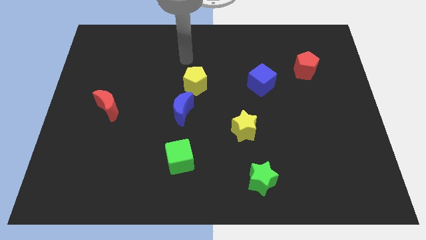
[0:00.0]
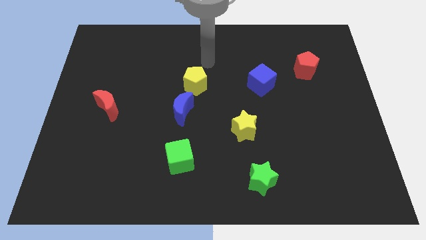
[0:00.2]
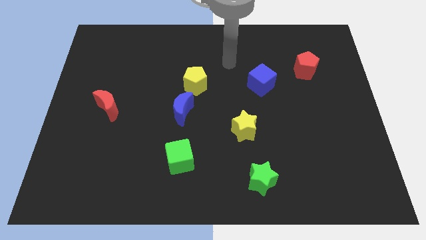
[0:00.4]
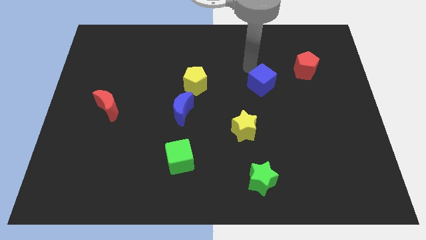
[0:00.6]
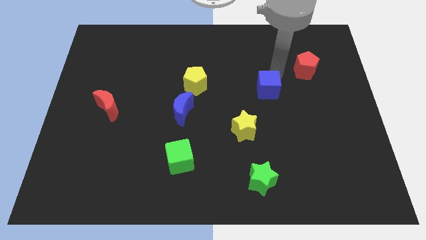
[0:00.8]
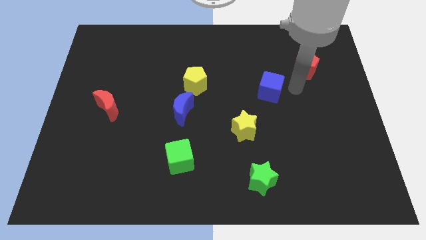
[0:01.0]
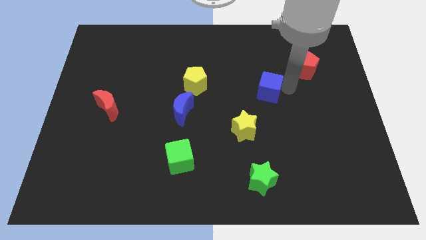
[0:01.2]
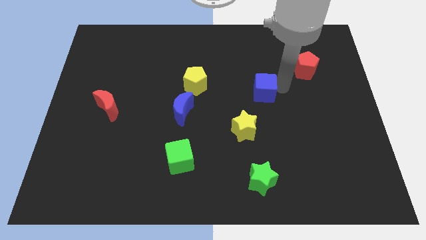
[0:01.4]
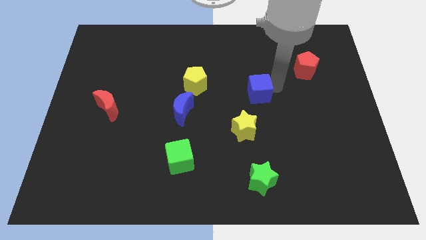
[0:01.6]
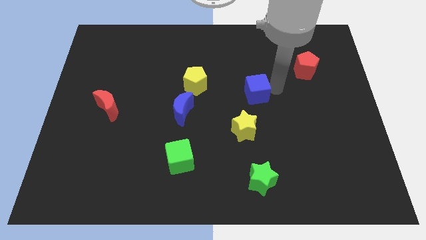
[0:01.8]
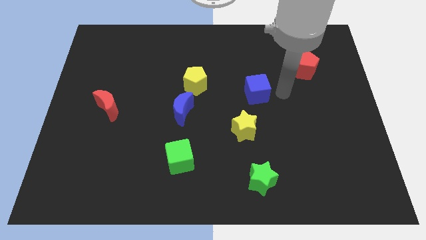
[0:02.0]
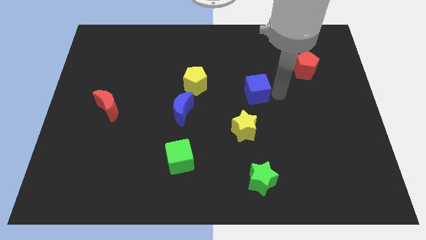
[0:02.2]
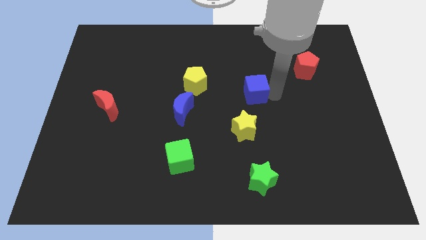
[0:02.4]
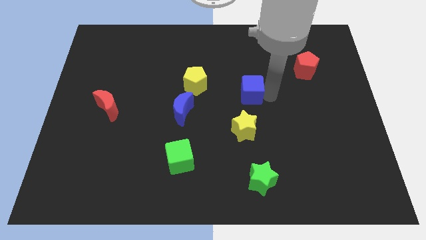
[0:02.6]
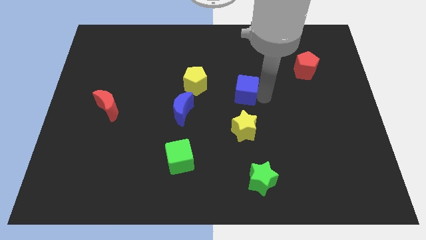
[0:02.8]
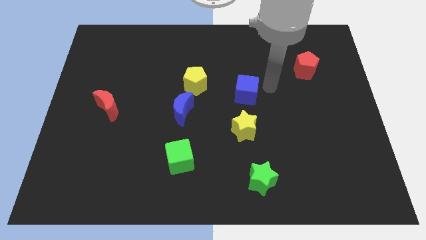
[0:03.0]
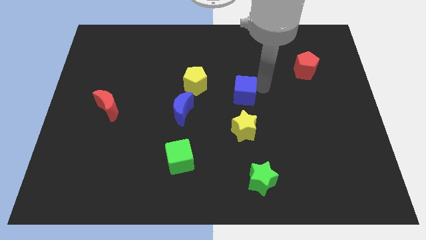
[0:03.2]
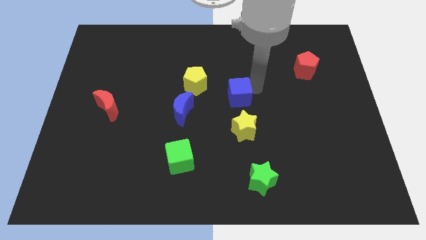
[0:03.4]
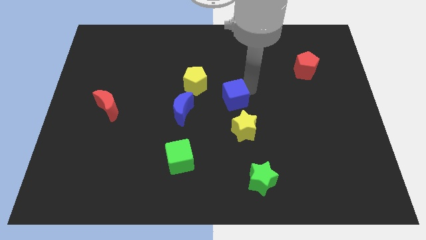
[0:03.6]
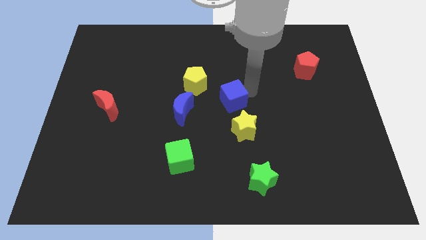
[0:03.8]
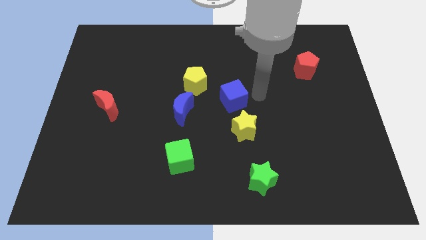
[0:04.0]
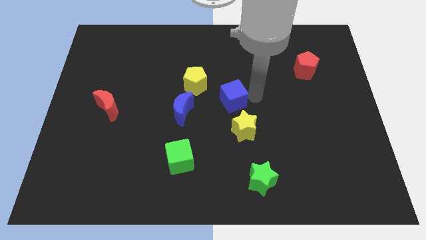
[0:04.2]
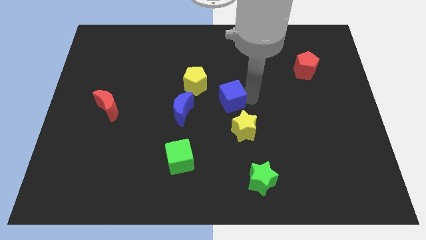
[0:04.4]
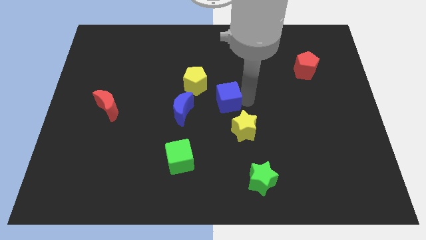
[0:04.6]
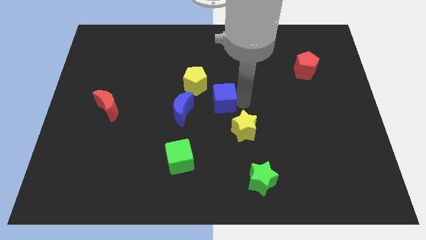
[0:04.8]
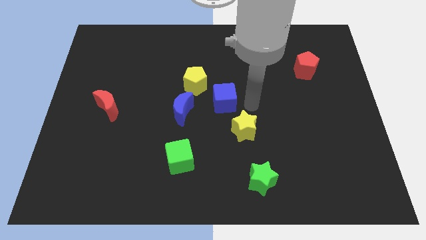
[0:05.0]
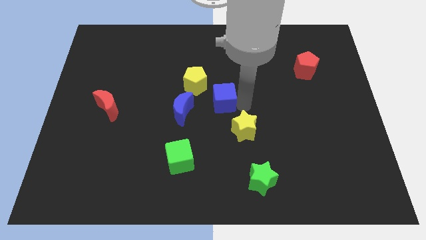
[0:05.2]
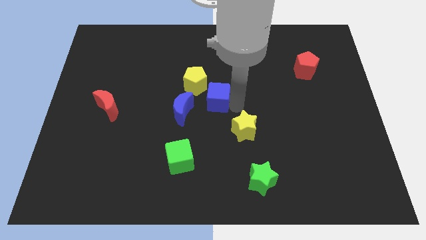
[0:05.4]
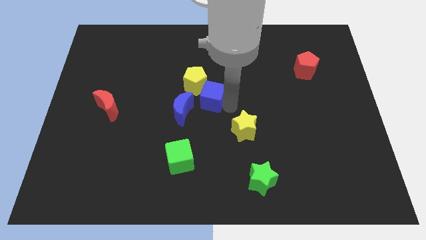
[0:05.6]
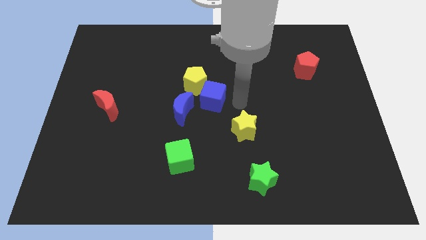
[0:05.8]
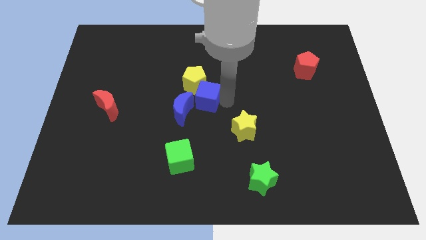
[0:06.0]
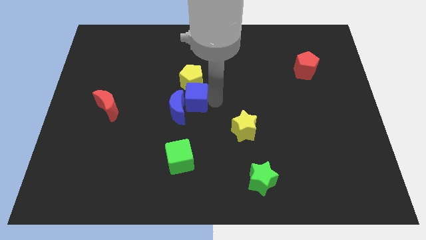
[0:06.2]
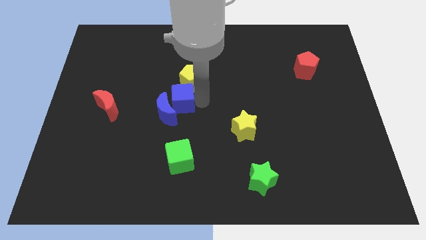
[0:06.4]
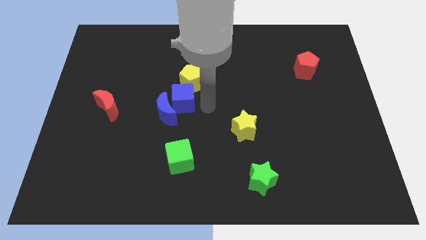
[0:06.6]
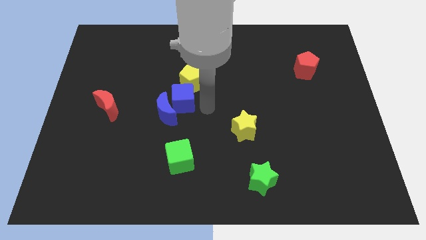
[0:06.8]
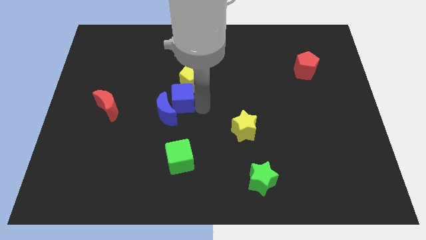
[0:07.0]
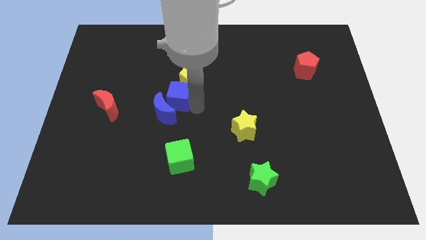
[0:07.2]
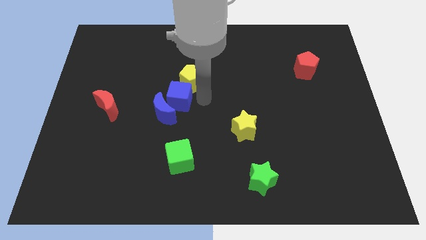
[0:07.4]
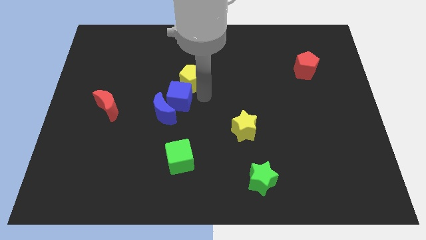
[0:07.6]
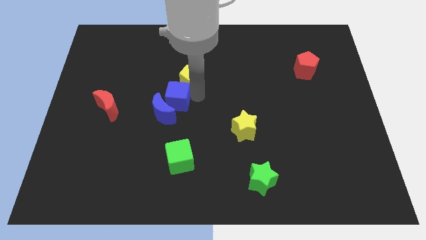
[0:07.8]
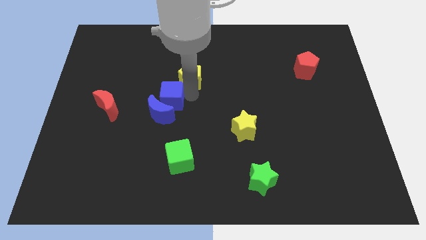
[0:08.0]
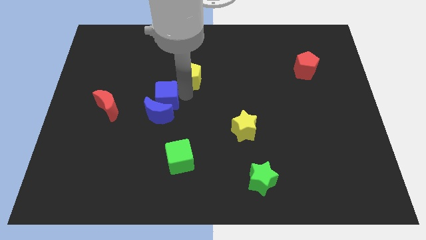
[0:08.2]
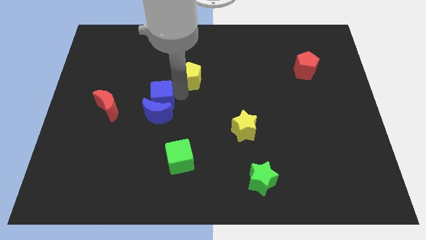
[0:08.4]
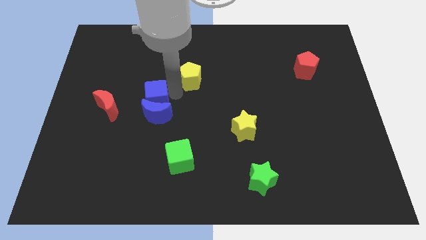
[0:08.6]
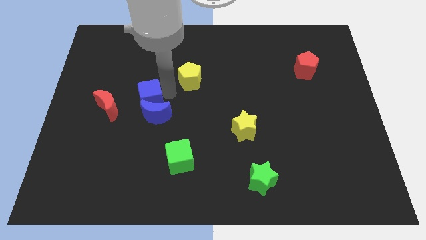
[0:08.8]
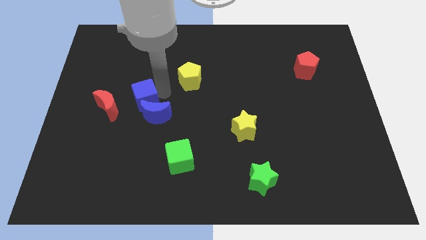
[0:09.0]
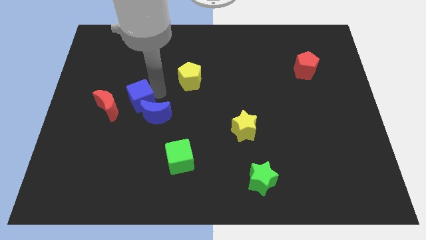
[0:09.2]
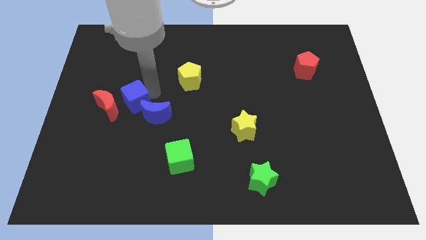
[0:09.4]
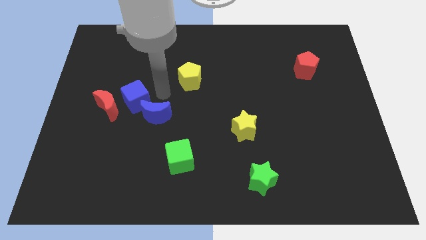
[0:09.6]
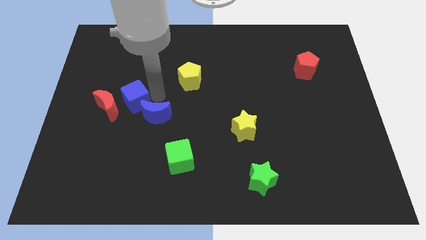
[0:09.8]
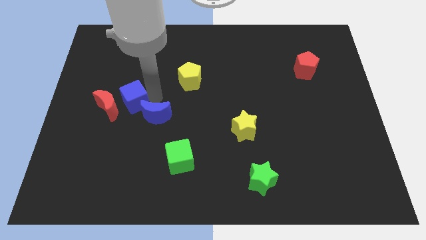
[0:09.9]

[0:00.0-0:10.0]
move the blue cube towards the red moon

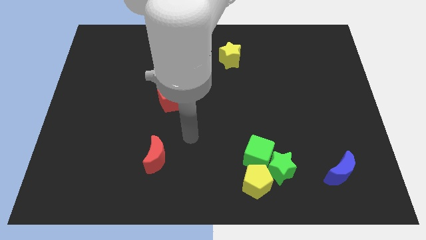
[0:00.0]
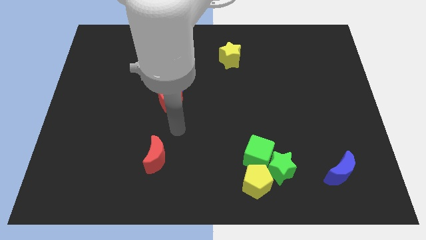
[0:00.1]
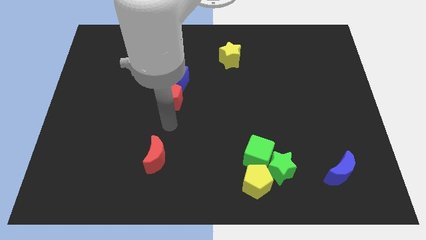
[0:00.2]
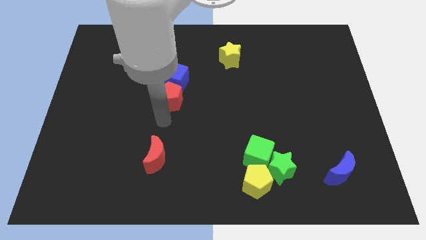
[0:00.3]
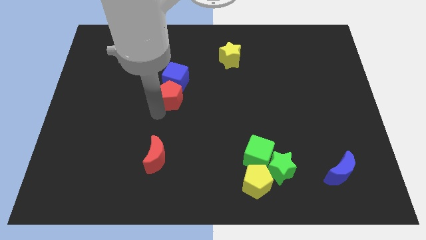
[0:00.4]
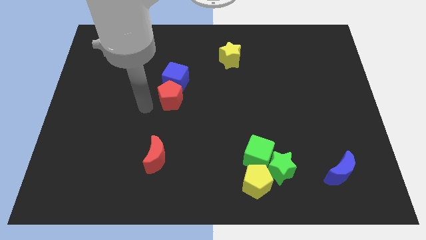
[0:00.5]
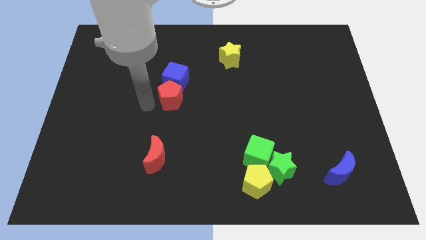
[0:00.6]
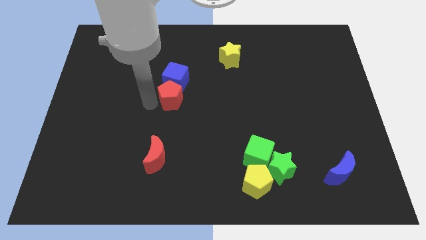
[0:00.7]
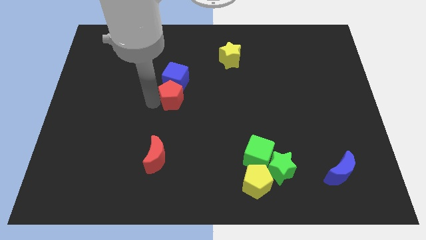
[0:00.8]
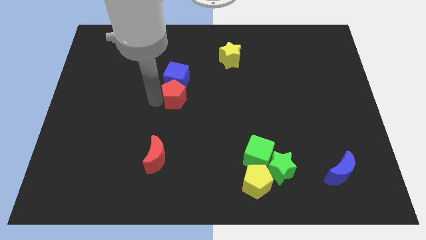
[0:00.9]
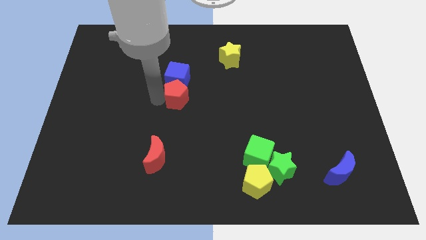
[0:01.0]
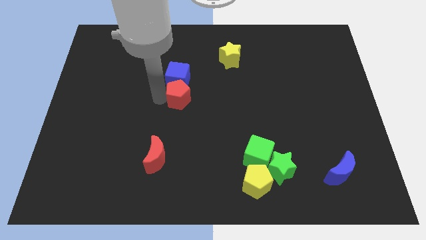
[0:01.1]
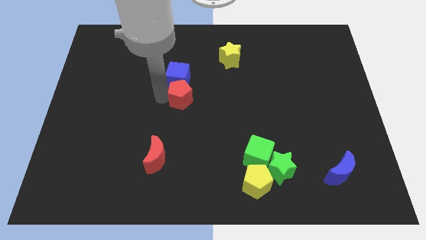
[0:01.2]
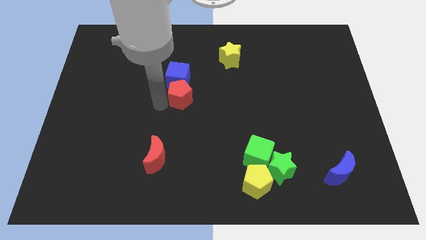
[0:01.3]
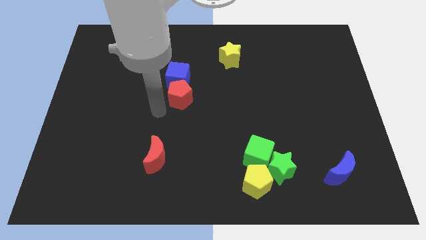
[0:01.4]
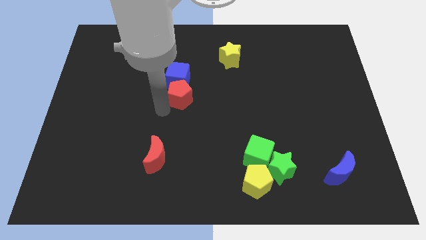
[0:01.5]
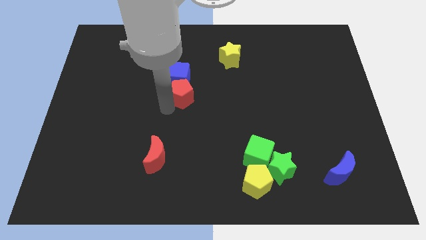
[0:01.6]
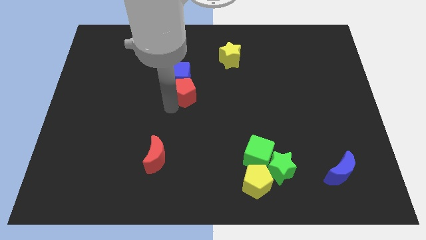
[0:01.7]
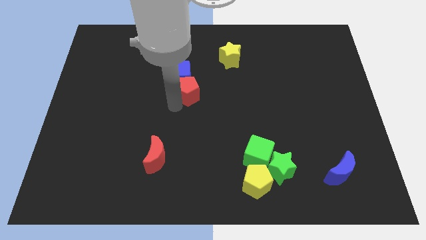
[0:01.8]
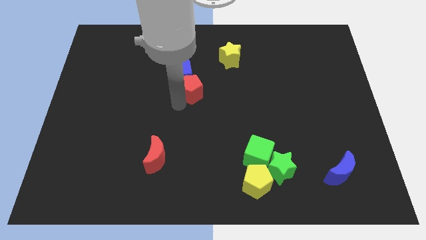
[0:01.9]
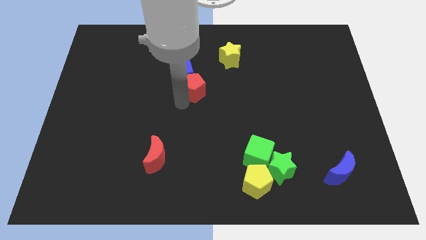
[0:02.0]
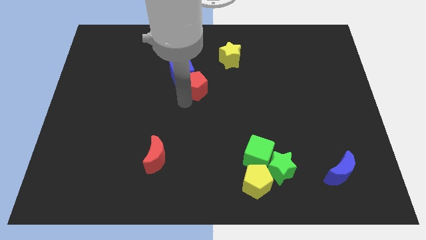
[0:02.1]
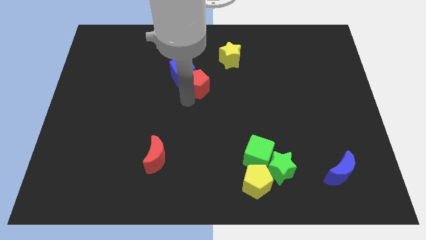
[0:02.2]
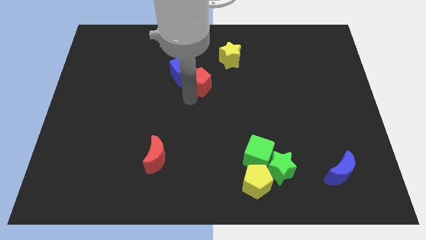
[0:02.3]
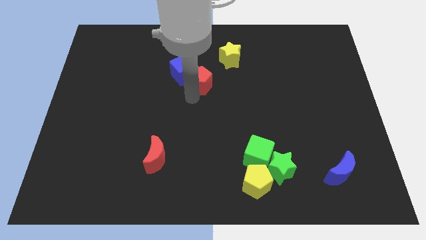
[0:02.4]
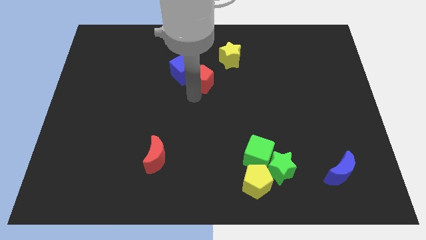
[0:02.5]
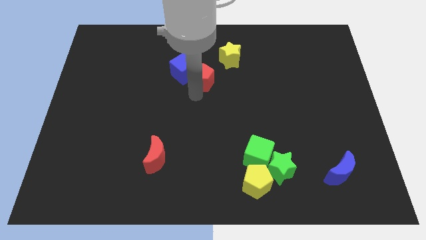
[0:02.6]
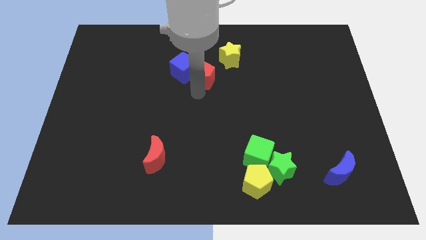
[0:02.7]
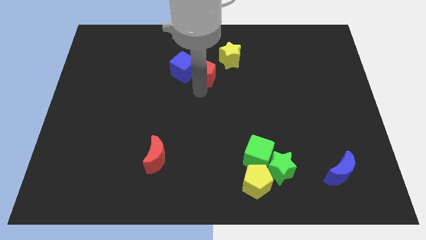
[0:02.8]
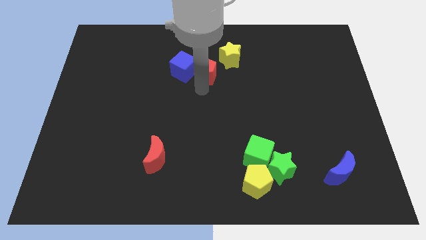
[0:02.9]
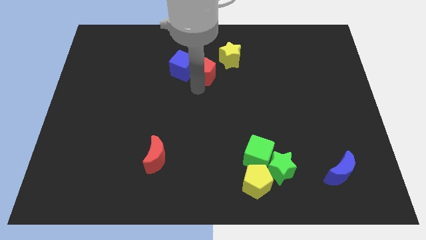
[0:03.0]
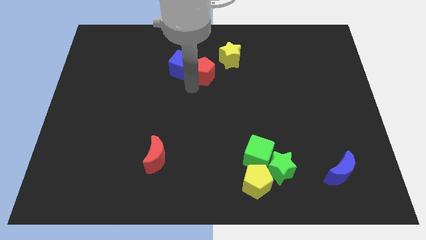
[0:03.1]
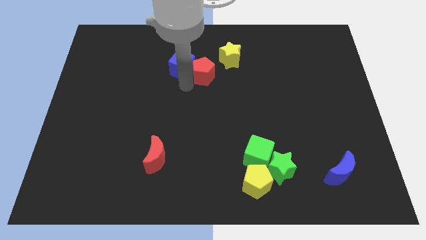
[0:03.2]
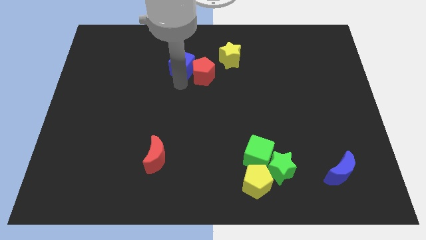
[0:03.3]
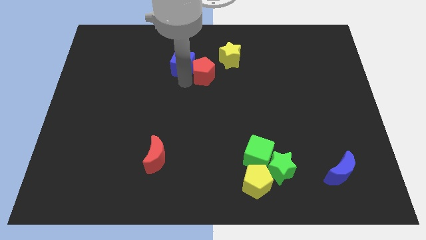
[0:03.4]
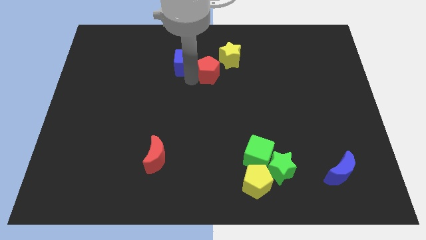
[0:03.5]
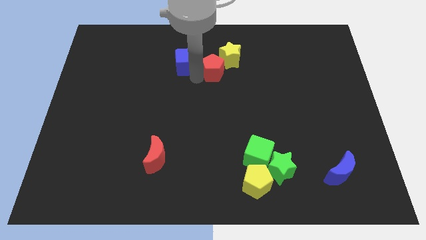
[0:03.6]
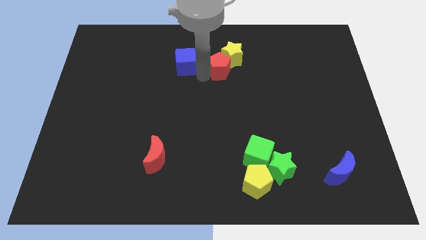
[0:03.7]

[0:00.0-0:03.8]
slide the red pentagon towards the yellow star
